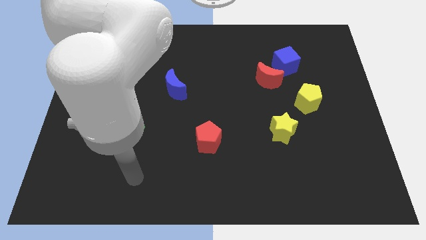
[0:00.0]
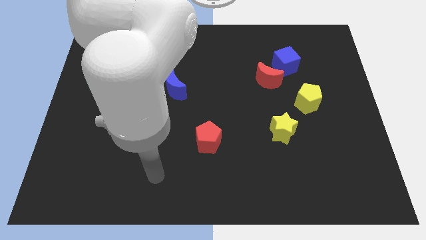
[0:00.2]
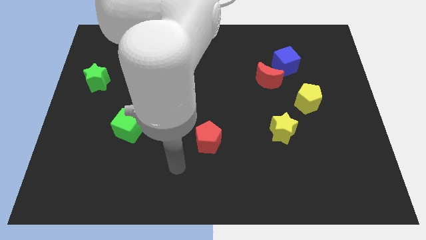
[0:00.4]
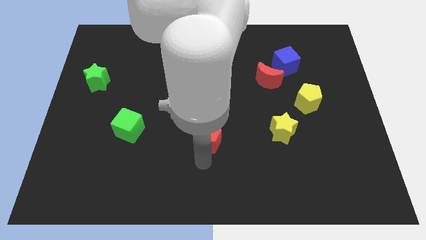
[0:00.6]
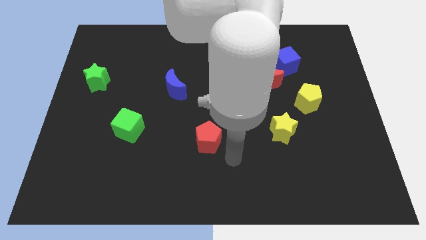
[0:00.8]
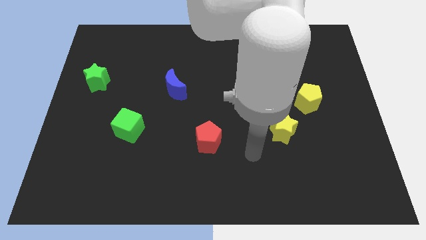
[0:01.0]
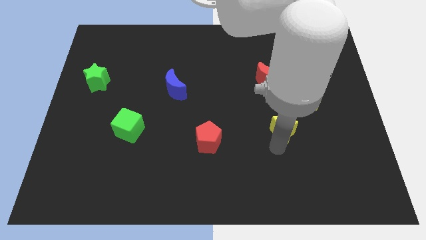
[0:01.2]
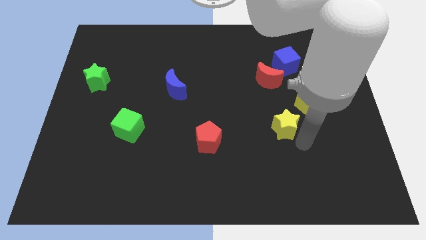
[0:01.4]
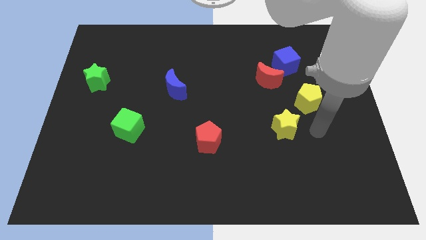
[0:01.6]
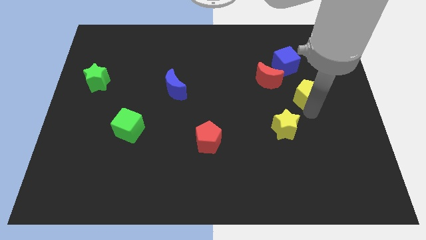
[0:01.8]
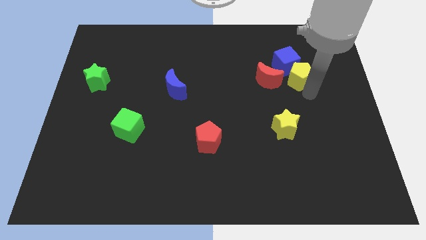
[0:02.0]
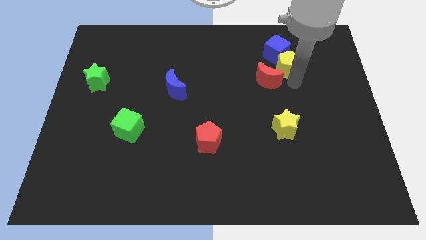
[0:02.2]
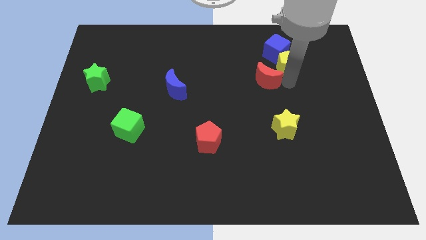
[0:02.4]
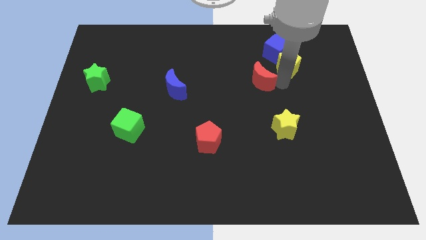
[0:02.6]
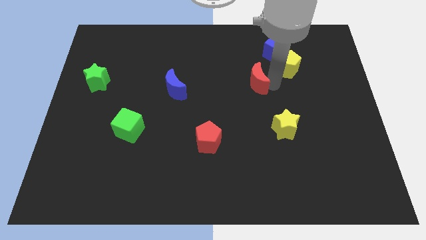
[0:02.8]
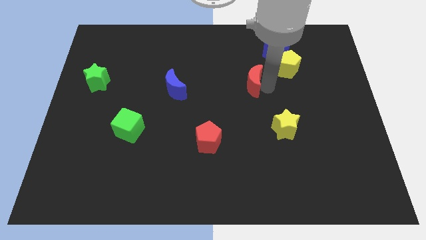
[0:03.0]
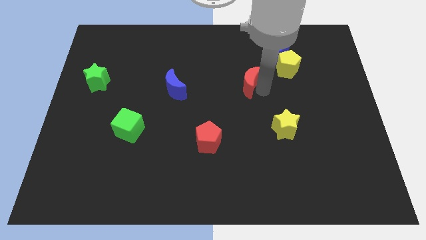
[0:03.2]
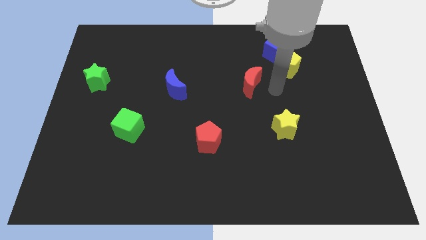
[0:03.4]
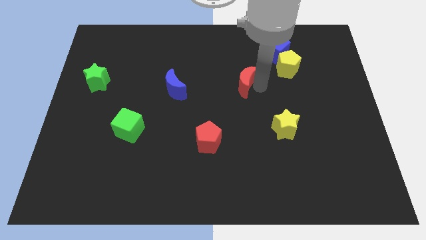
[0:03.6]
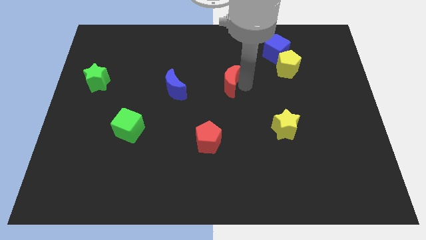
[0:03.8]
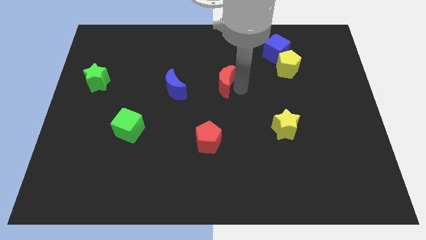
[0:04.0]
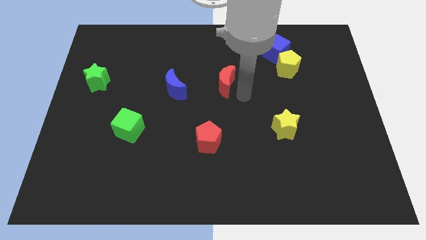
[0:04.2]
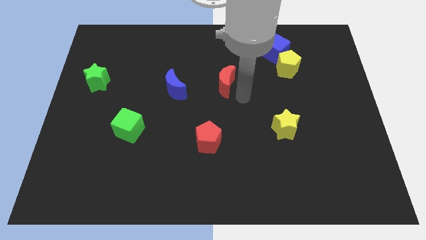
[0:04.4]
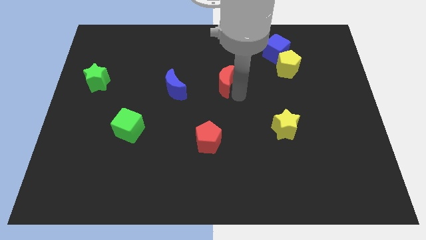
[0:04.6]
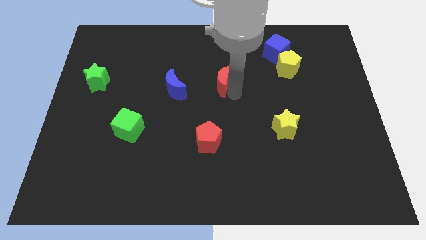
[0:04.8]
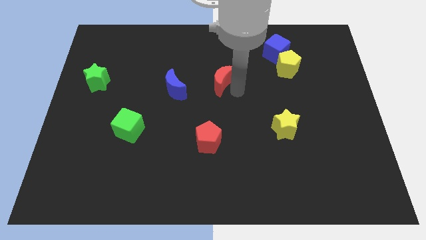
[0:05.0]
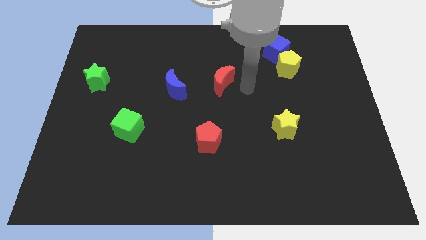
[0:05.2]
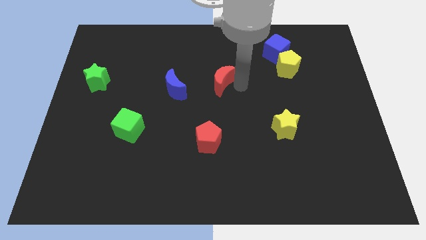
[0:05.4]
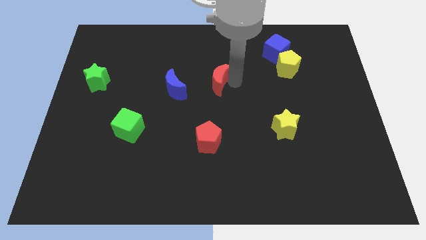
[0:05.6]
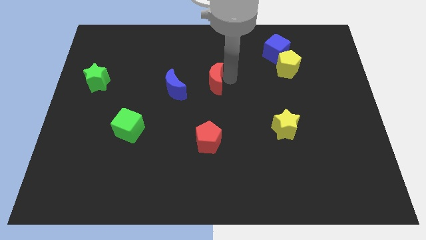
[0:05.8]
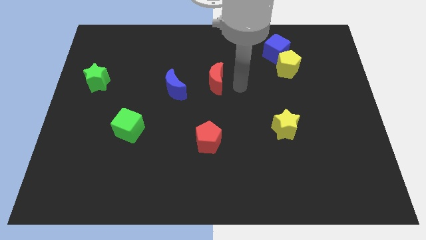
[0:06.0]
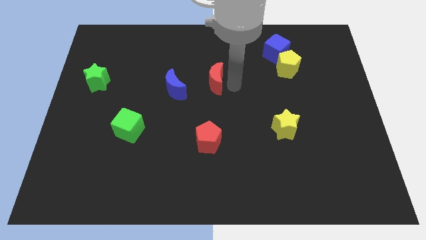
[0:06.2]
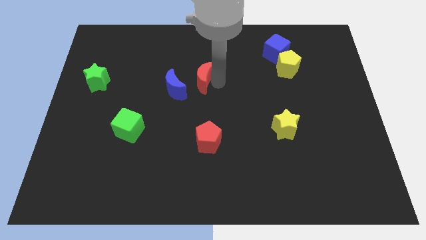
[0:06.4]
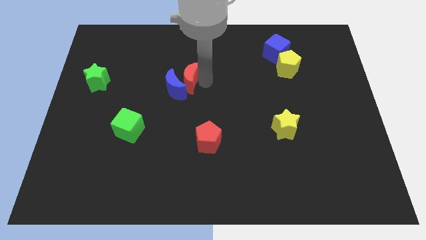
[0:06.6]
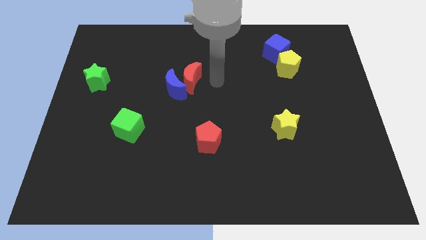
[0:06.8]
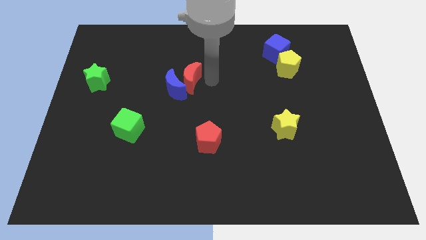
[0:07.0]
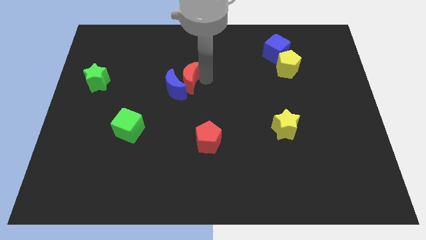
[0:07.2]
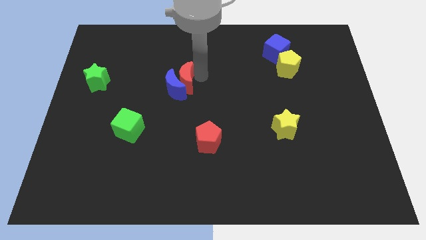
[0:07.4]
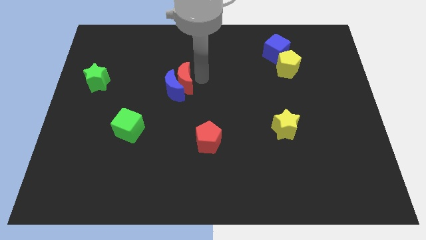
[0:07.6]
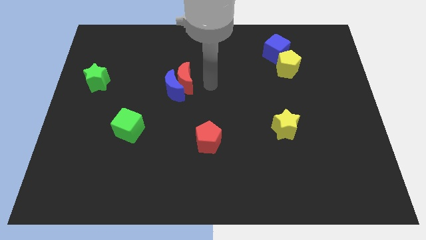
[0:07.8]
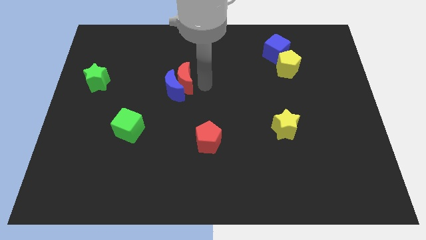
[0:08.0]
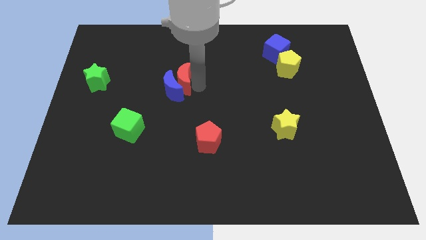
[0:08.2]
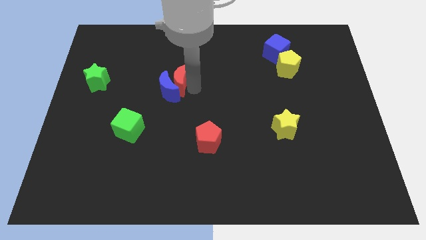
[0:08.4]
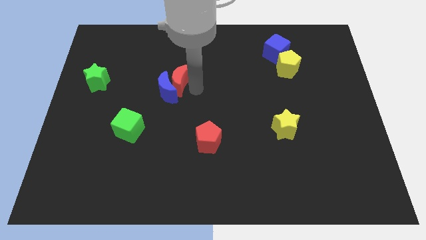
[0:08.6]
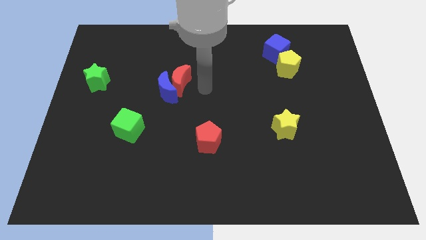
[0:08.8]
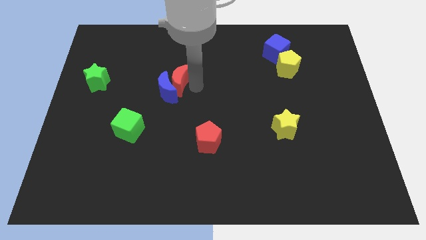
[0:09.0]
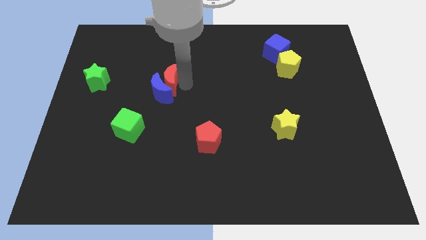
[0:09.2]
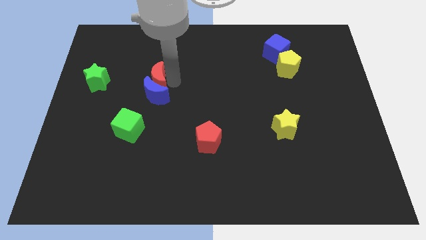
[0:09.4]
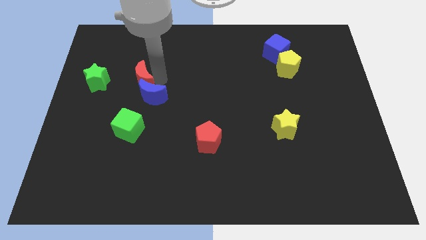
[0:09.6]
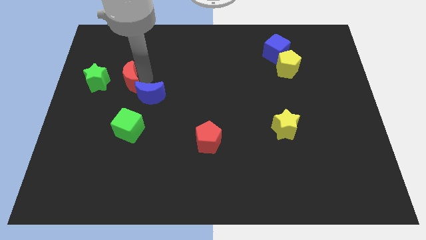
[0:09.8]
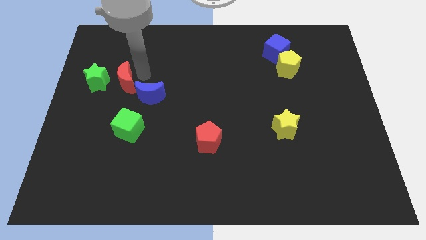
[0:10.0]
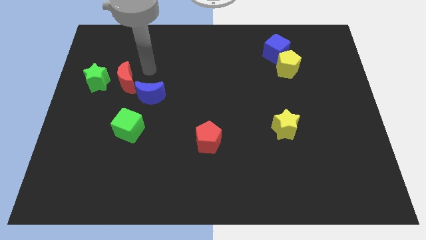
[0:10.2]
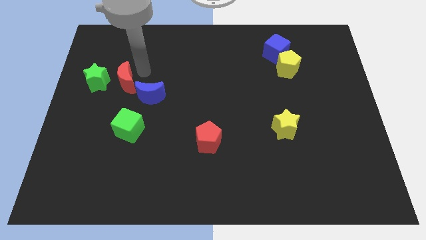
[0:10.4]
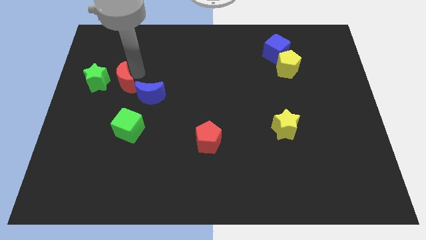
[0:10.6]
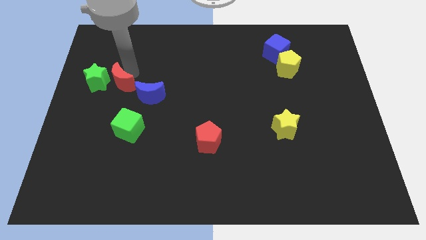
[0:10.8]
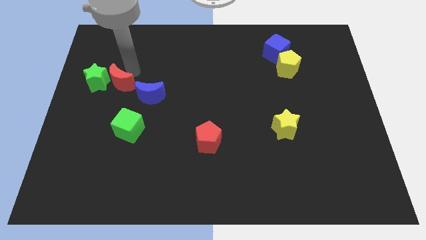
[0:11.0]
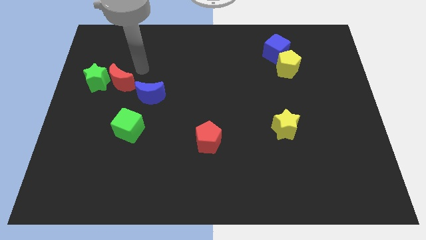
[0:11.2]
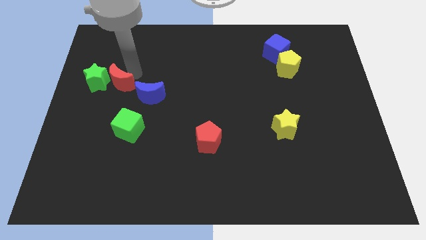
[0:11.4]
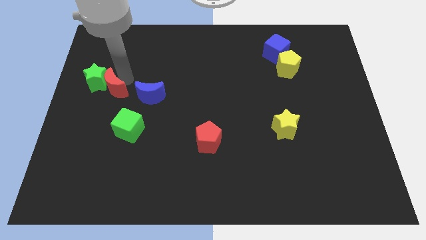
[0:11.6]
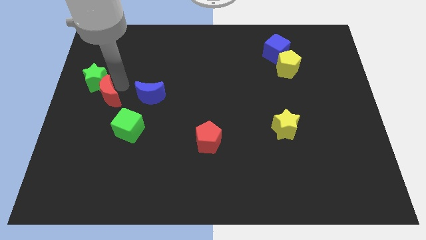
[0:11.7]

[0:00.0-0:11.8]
push the red moon to the center left
